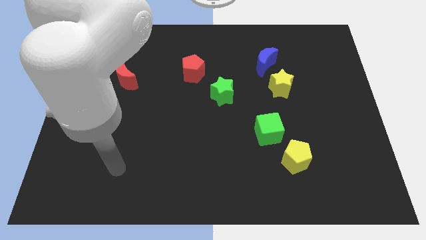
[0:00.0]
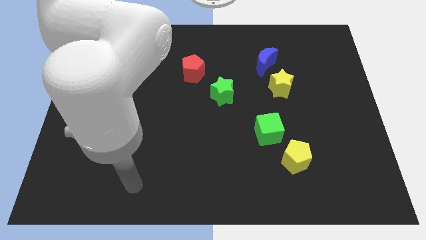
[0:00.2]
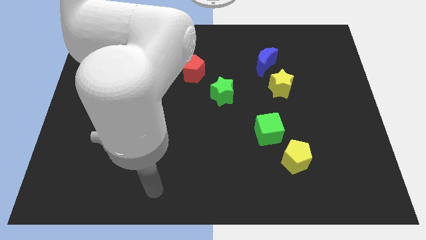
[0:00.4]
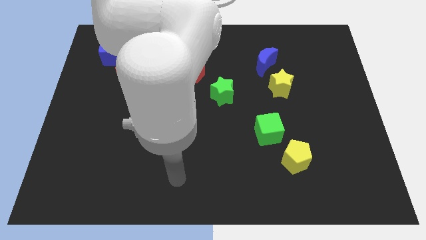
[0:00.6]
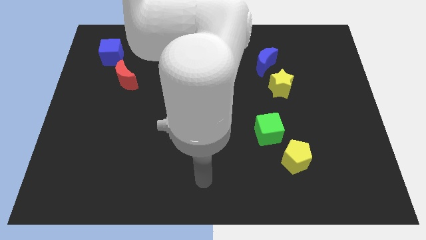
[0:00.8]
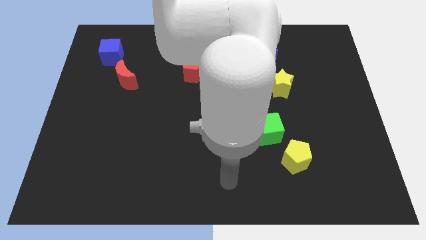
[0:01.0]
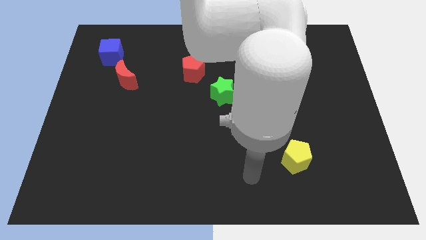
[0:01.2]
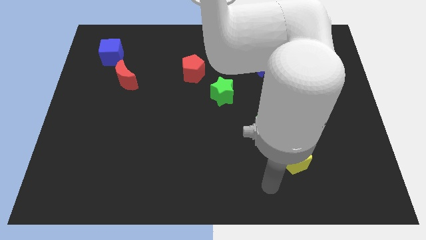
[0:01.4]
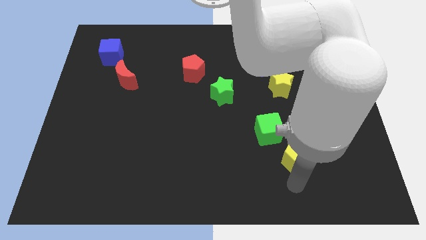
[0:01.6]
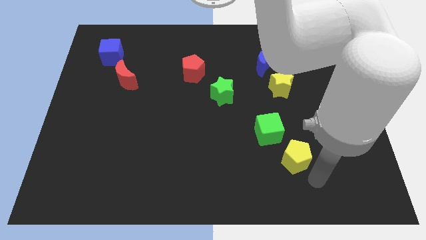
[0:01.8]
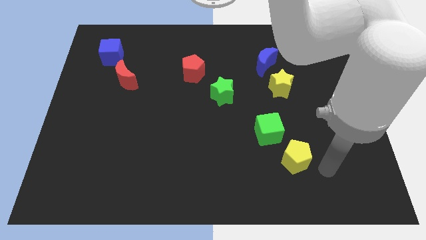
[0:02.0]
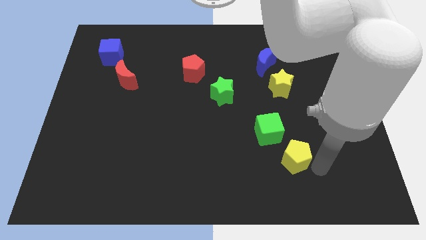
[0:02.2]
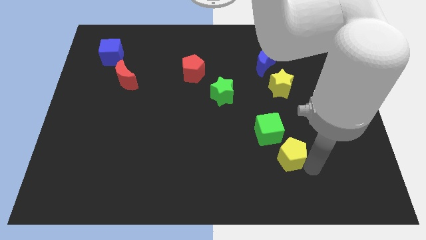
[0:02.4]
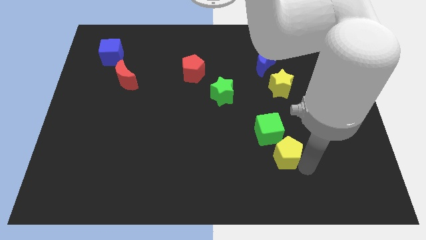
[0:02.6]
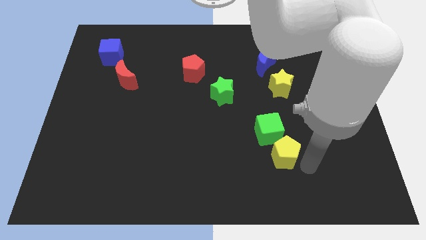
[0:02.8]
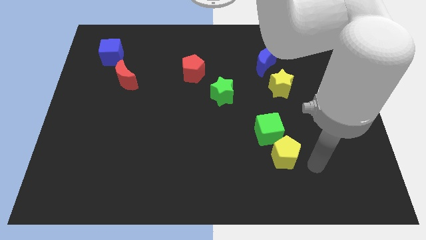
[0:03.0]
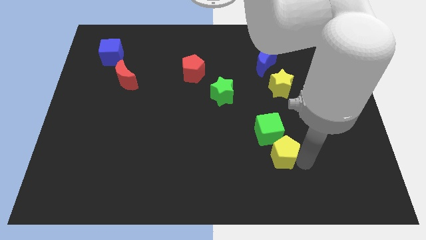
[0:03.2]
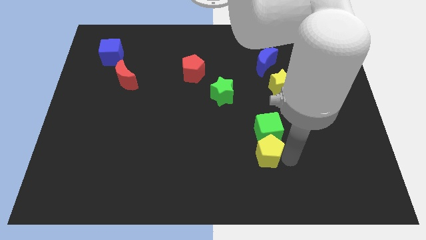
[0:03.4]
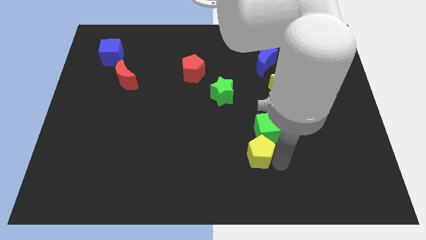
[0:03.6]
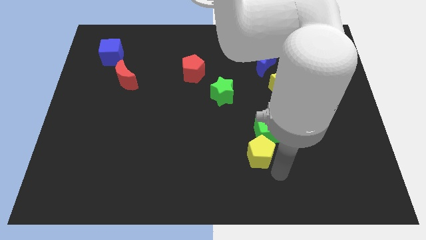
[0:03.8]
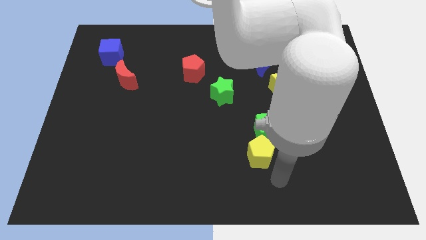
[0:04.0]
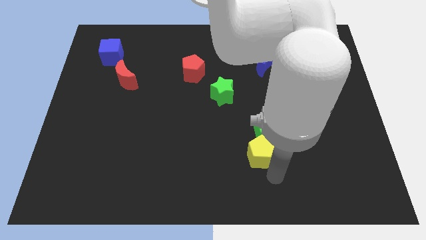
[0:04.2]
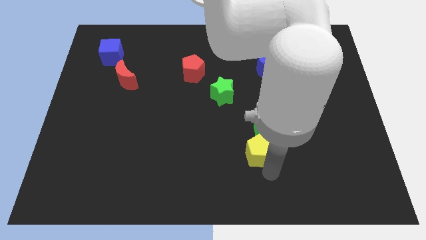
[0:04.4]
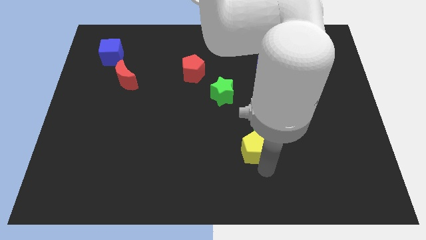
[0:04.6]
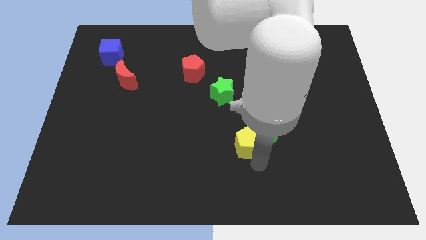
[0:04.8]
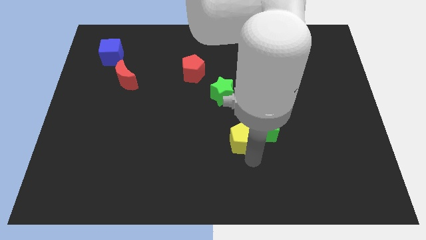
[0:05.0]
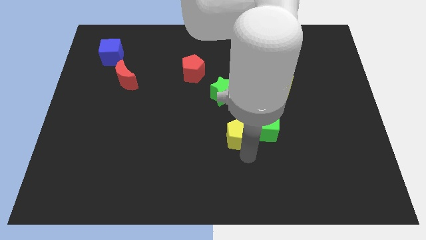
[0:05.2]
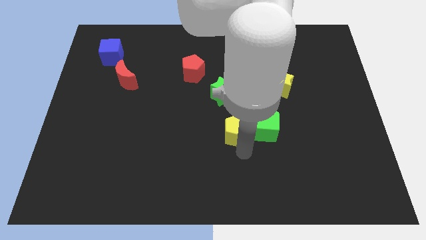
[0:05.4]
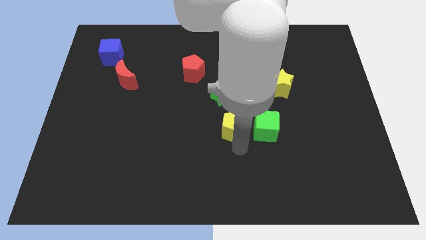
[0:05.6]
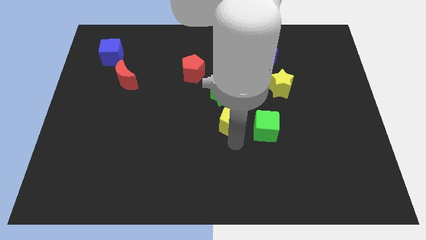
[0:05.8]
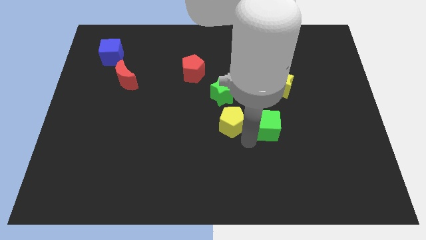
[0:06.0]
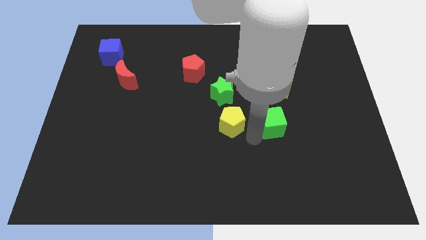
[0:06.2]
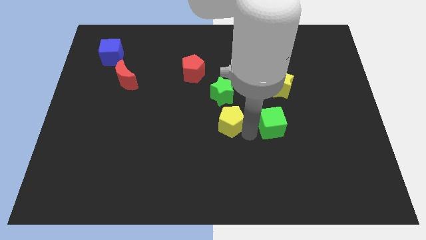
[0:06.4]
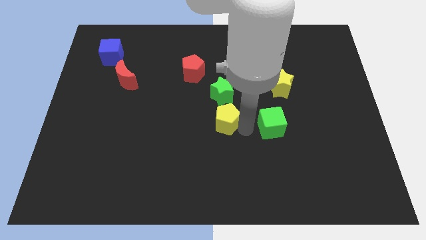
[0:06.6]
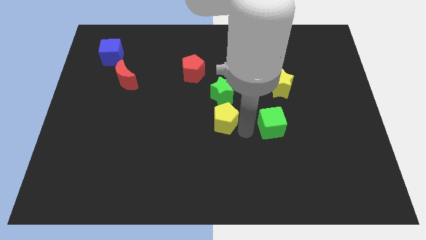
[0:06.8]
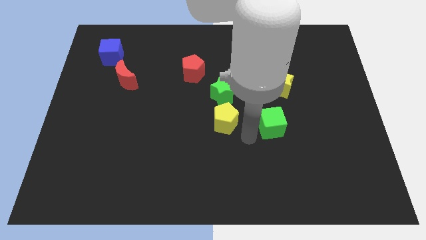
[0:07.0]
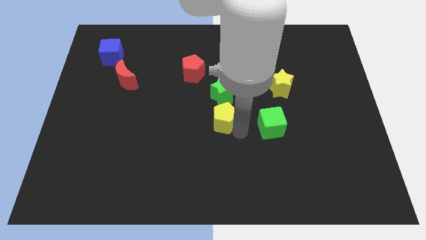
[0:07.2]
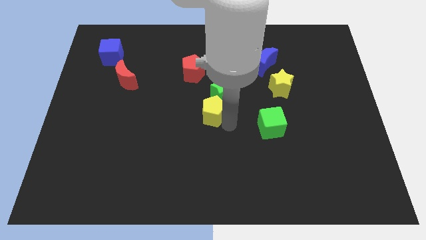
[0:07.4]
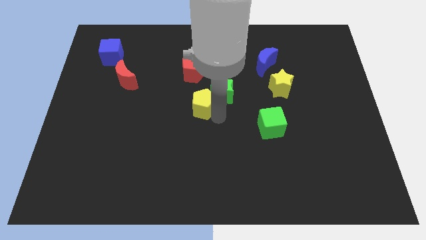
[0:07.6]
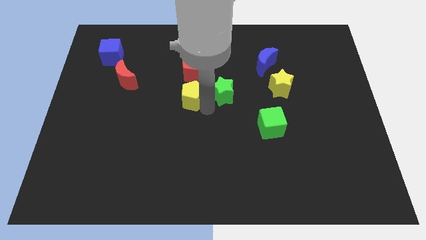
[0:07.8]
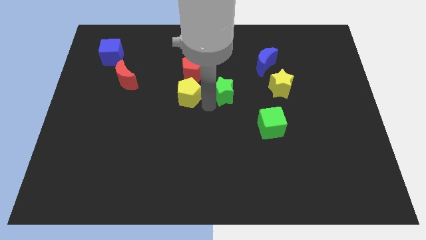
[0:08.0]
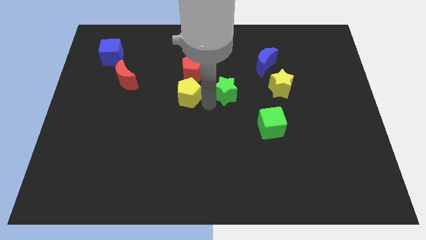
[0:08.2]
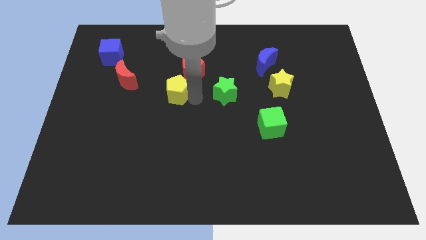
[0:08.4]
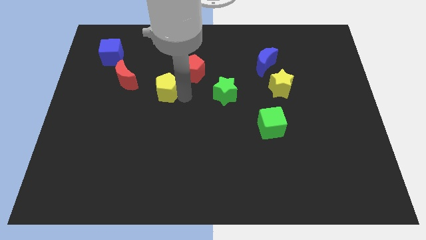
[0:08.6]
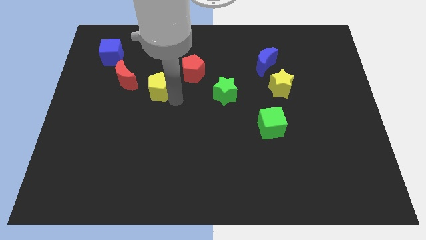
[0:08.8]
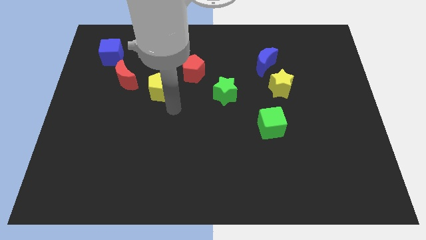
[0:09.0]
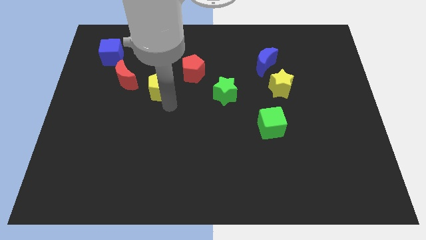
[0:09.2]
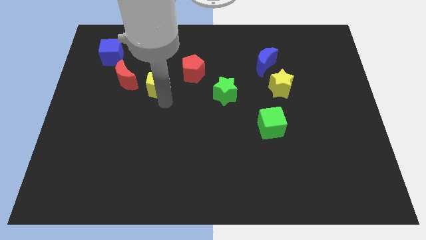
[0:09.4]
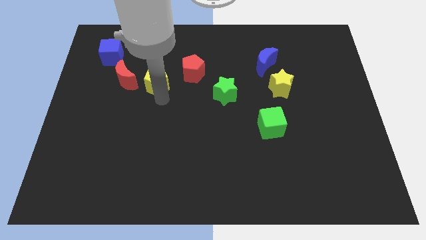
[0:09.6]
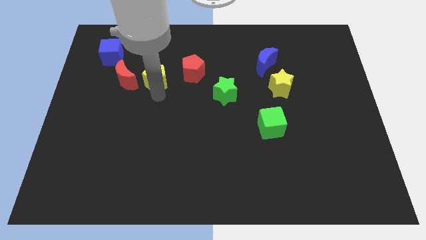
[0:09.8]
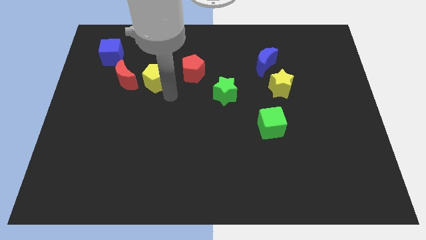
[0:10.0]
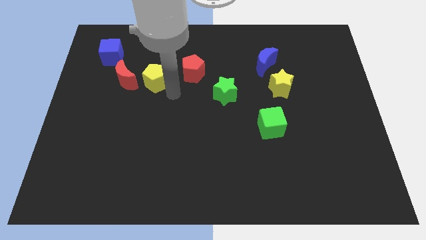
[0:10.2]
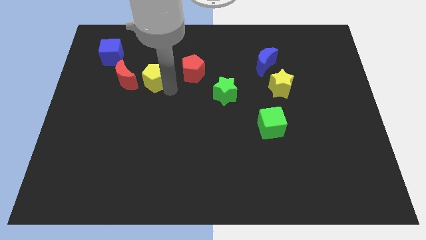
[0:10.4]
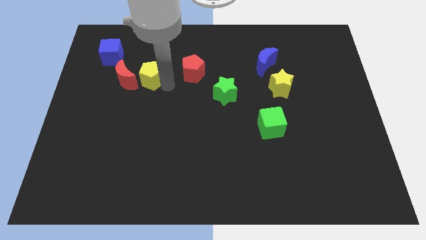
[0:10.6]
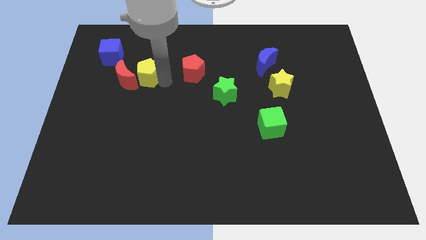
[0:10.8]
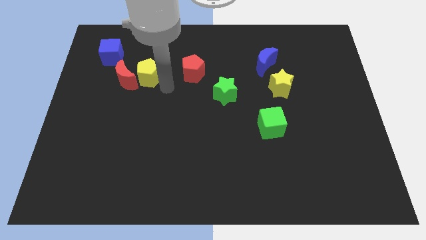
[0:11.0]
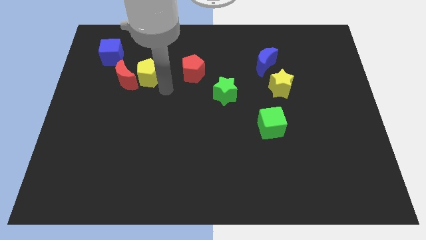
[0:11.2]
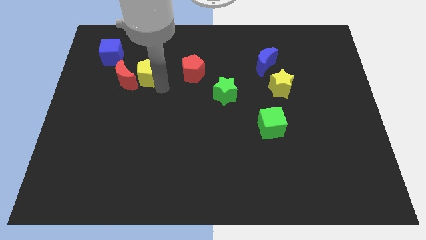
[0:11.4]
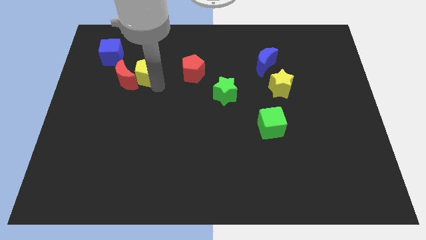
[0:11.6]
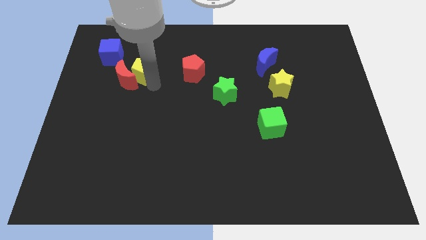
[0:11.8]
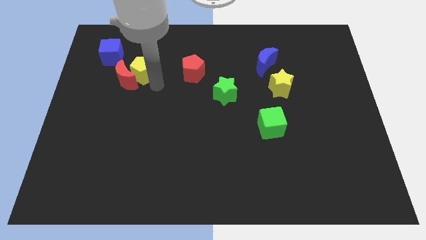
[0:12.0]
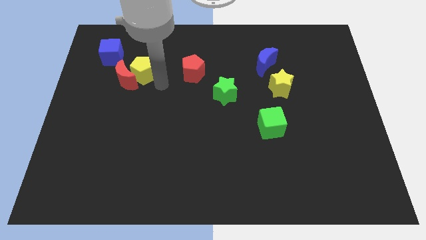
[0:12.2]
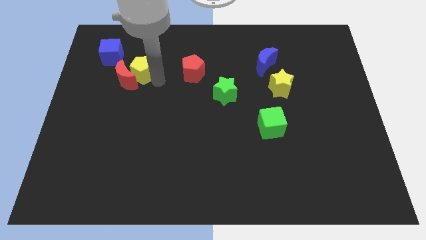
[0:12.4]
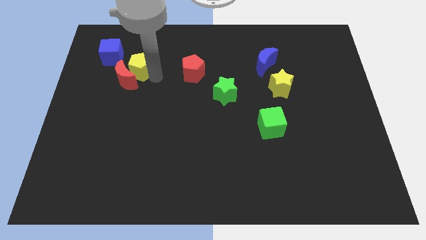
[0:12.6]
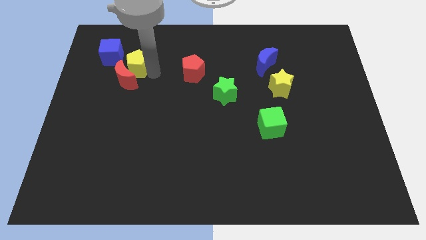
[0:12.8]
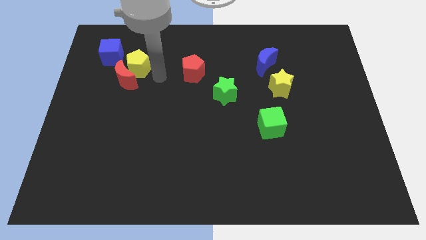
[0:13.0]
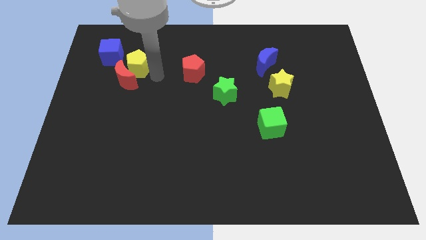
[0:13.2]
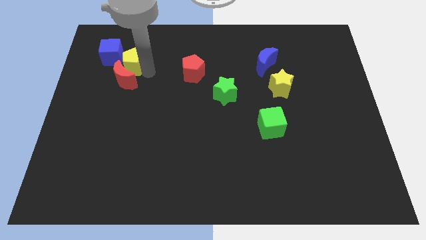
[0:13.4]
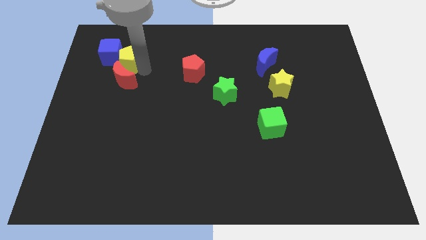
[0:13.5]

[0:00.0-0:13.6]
push the yellow pentagon next to the blue cube
